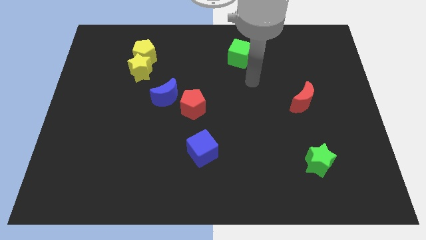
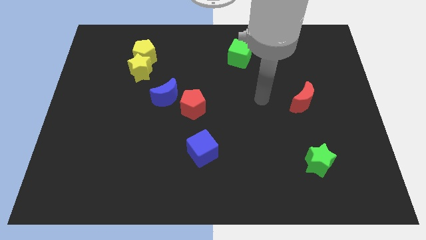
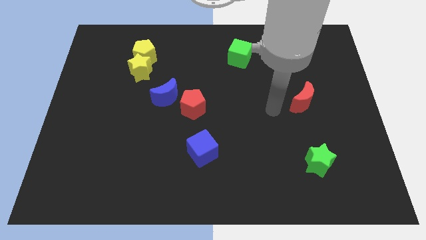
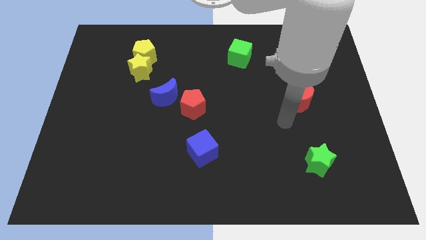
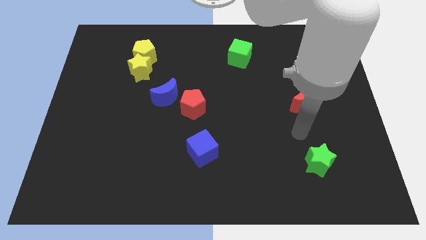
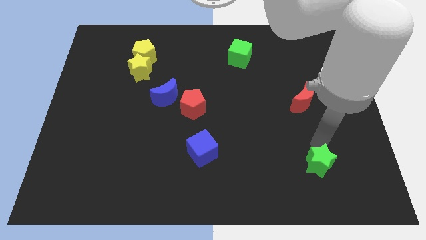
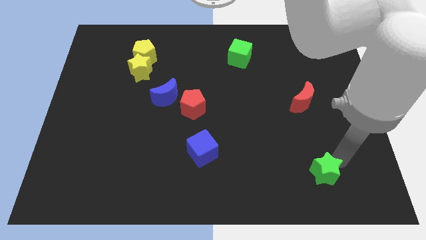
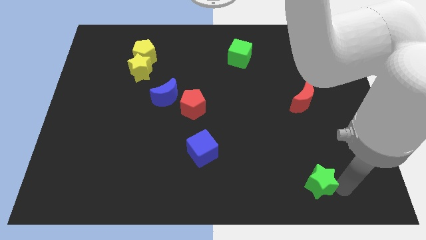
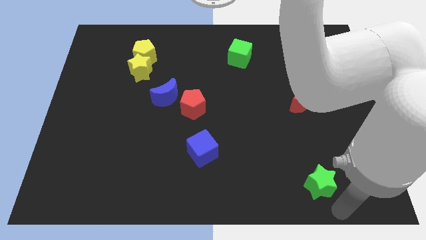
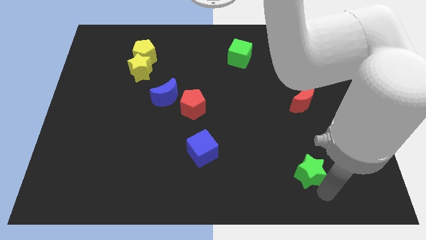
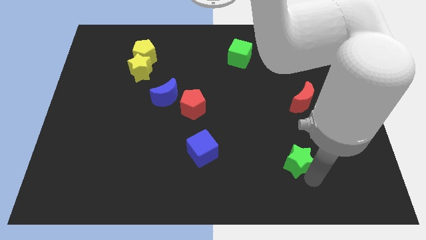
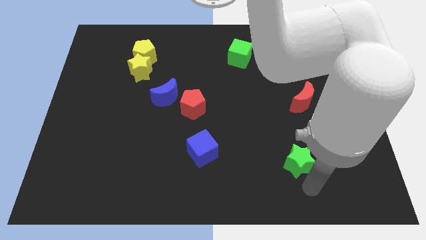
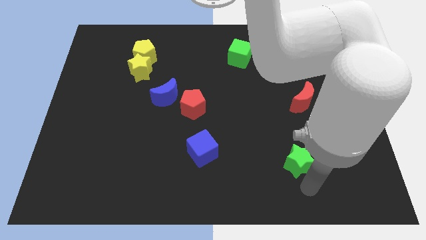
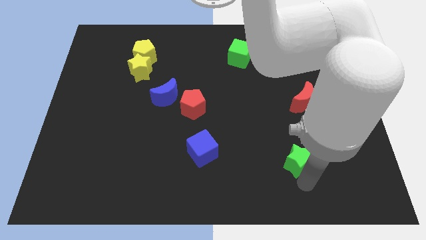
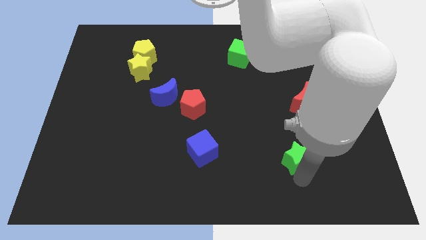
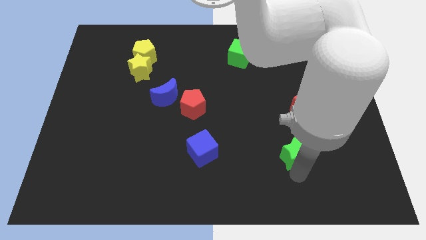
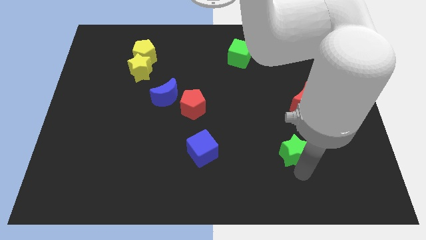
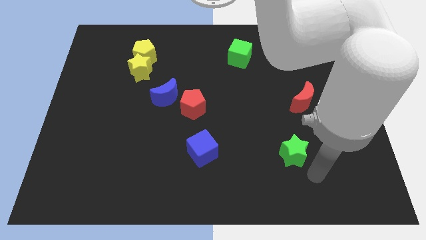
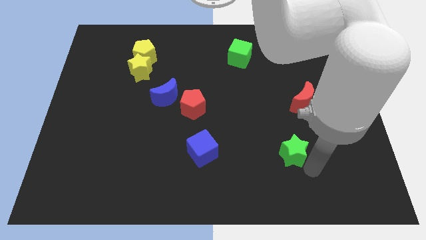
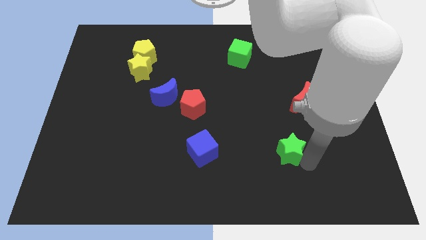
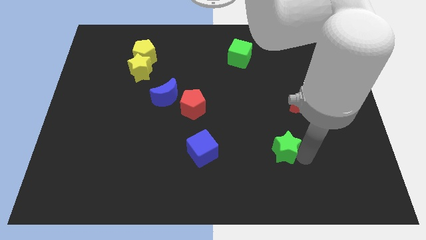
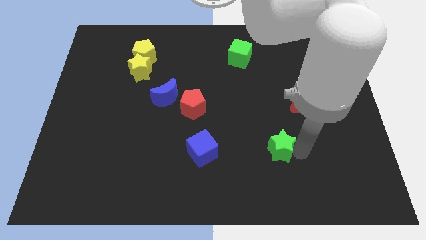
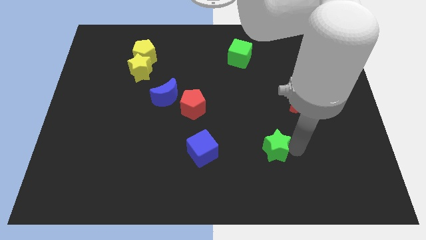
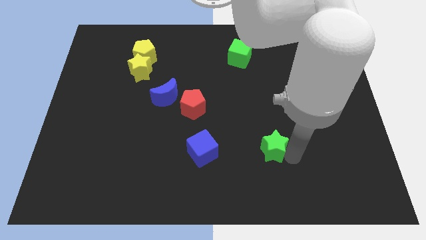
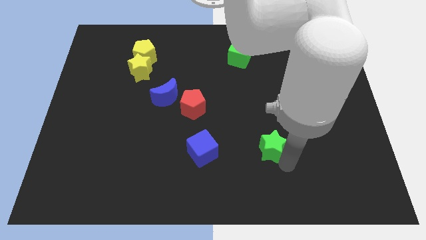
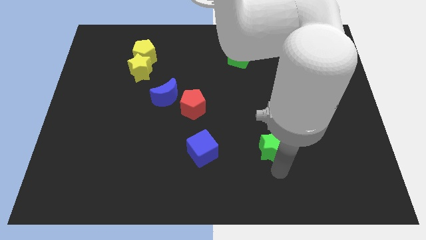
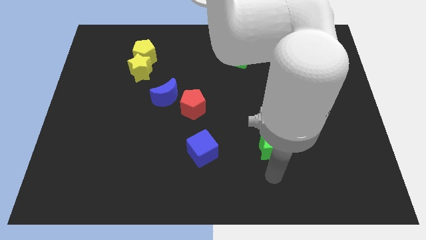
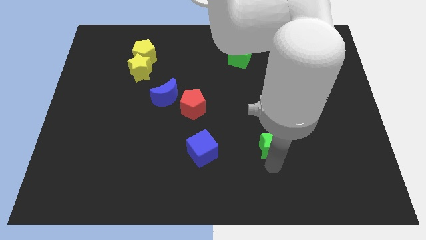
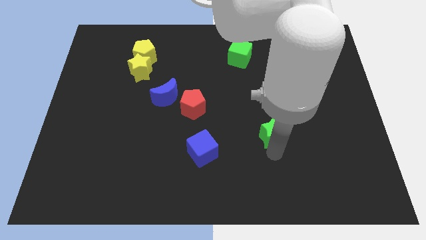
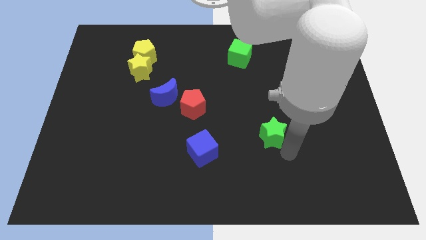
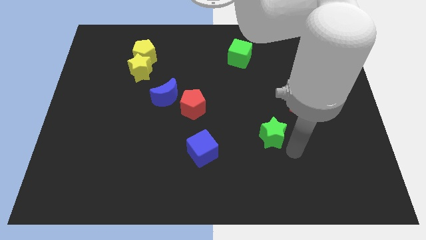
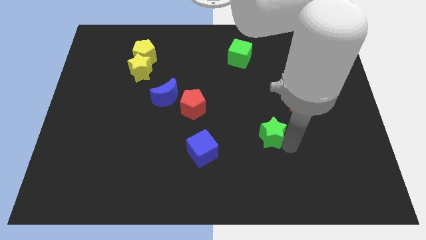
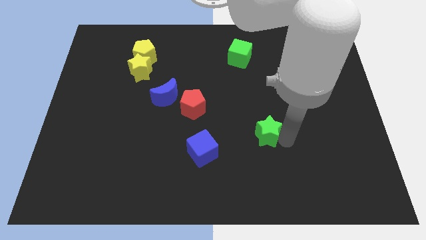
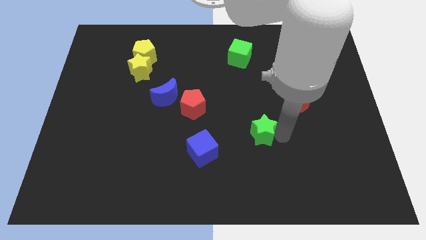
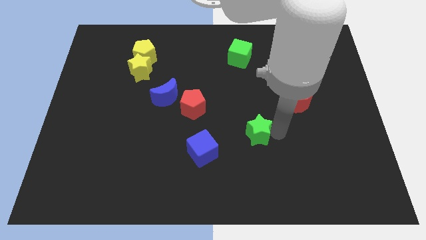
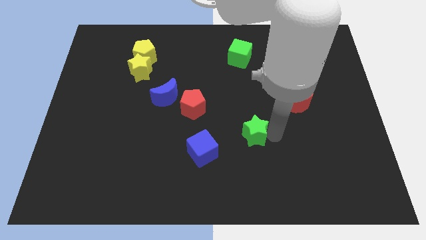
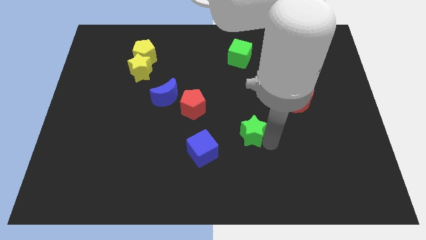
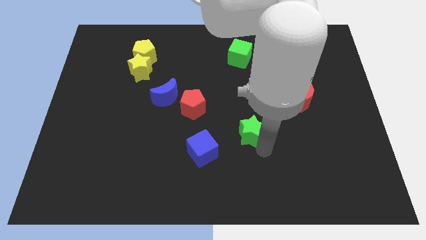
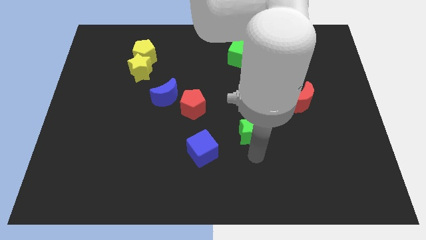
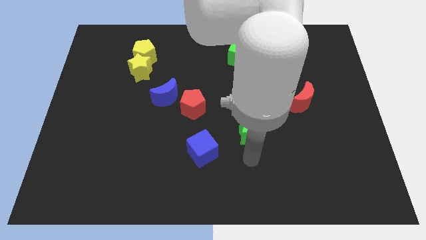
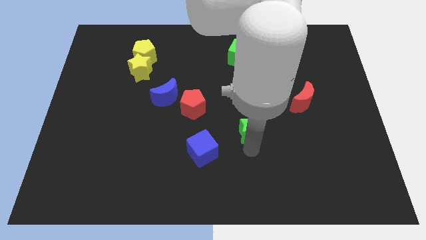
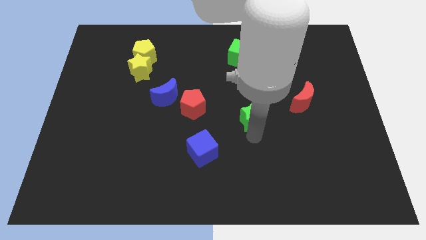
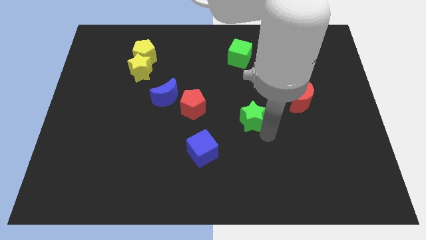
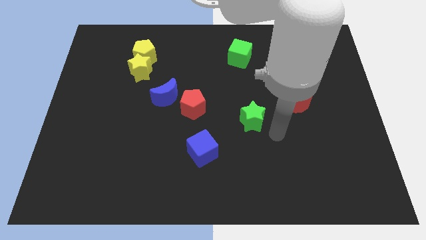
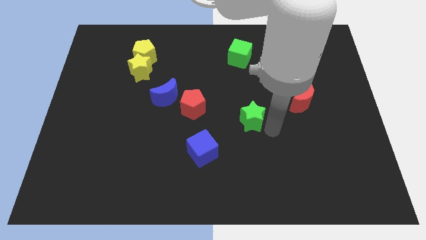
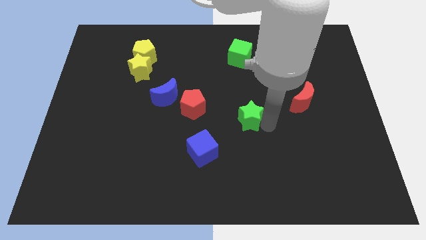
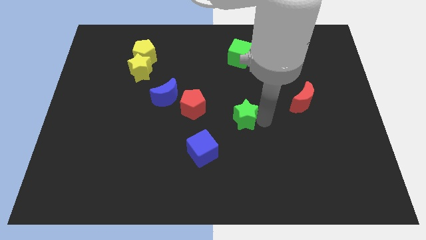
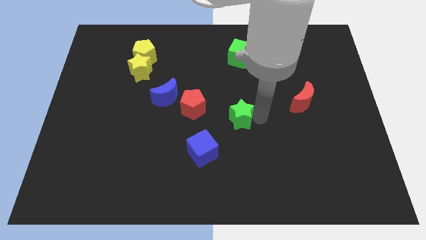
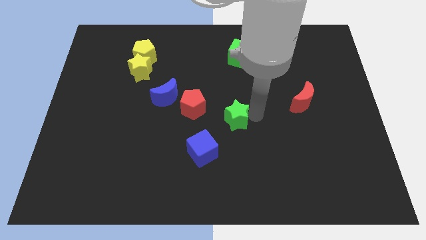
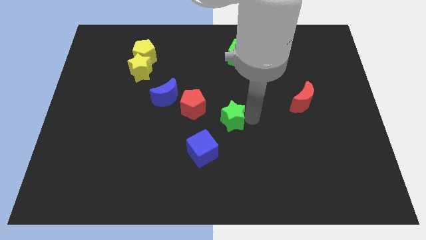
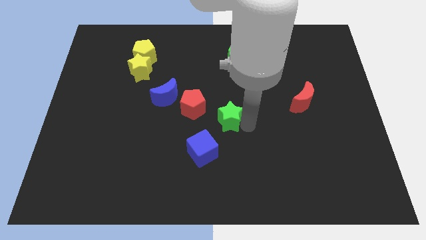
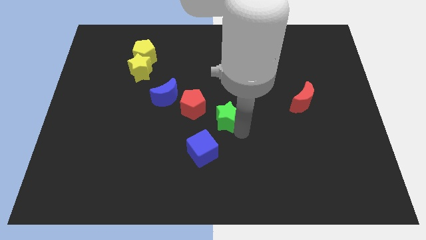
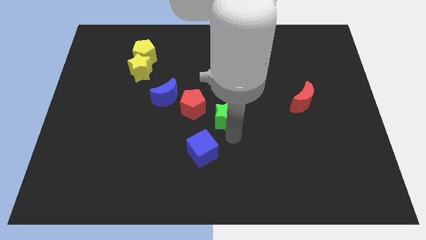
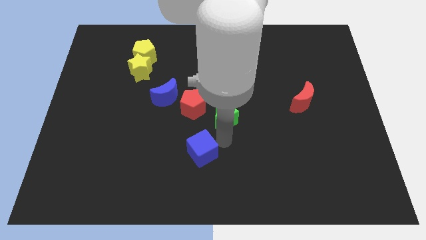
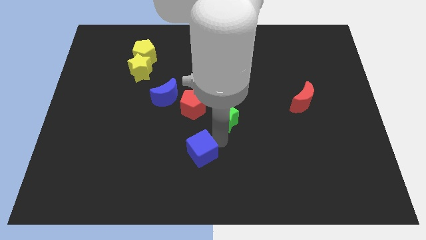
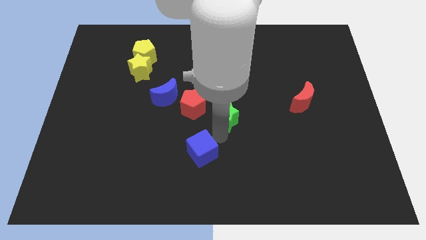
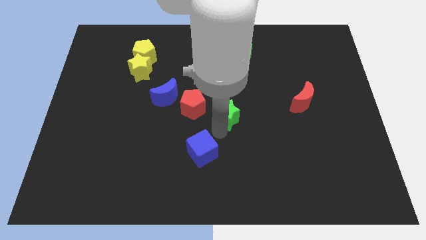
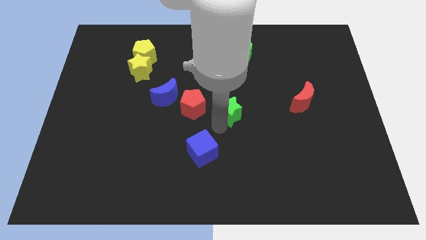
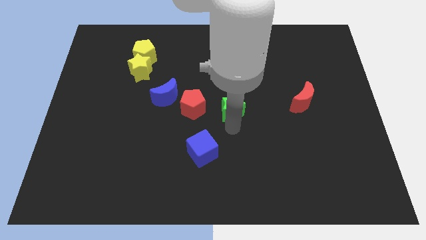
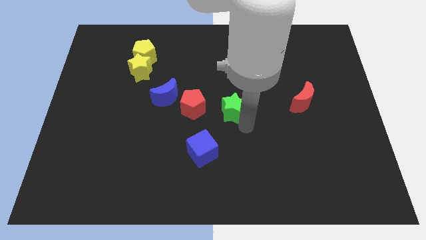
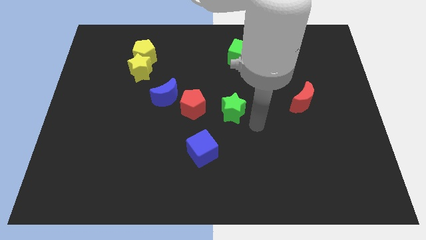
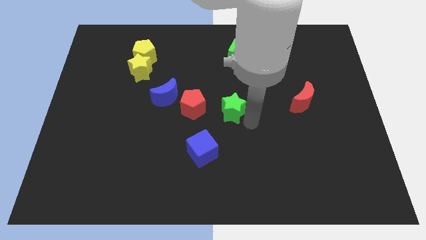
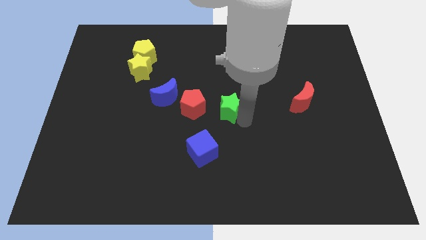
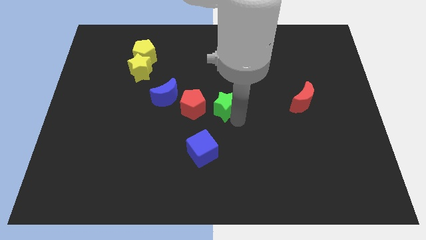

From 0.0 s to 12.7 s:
slide the green star to the right of the blue moon

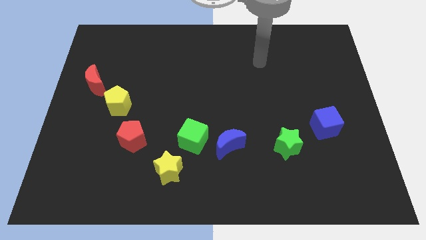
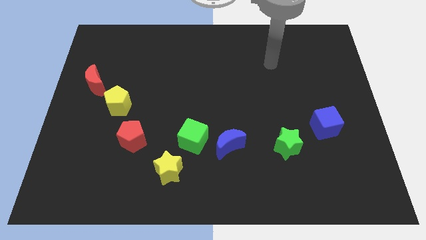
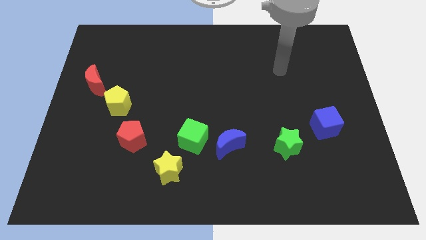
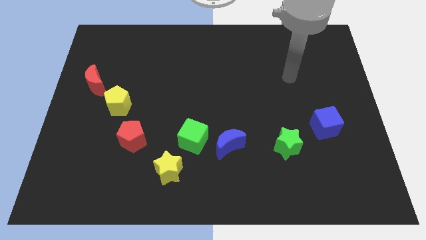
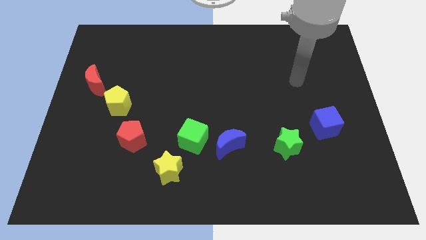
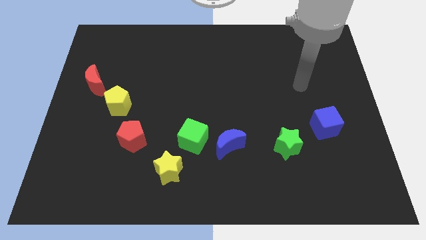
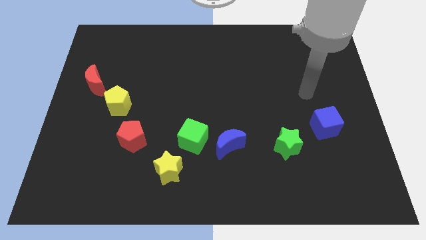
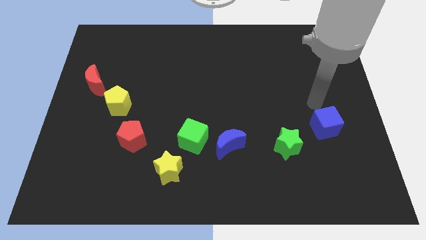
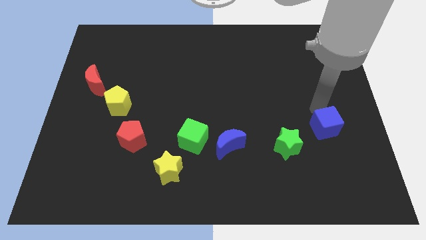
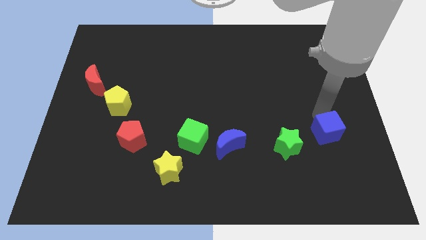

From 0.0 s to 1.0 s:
move the blue cube to the right of the green star
